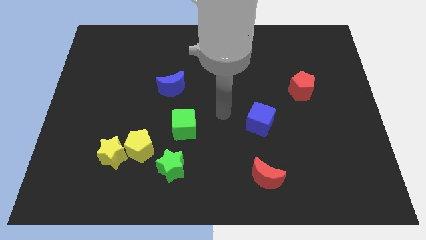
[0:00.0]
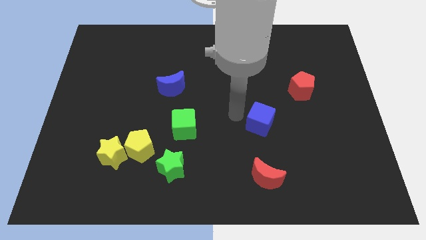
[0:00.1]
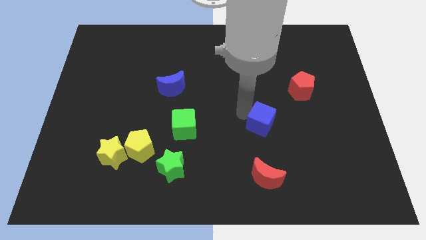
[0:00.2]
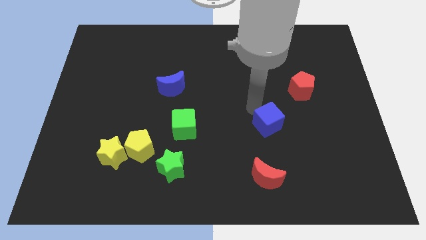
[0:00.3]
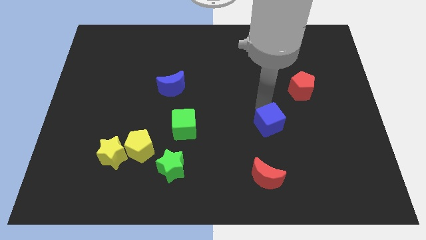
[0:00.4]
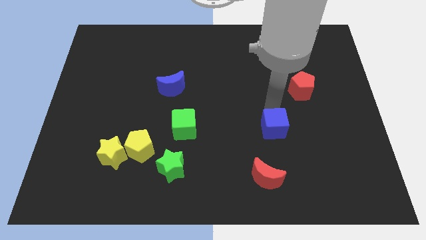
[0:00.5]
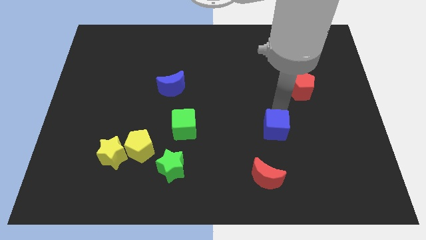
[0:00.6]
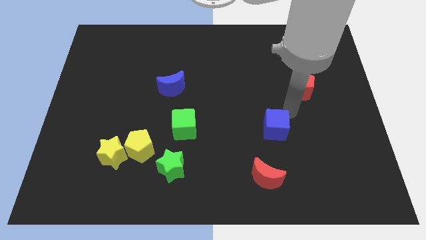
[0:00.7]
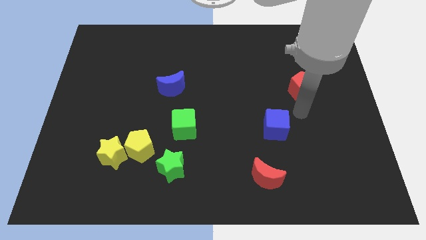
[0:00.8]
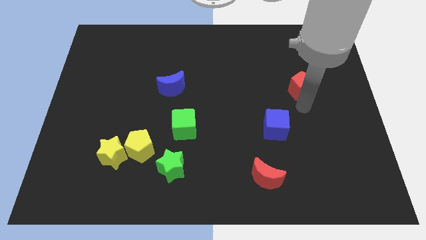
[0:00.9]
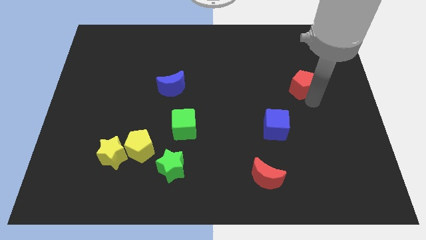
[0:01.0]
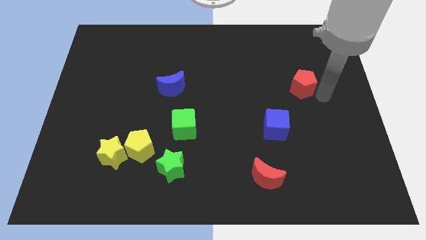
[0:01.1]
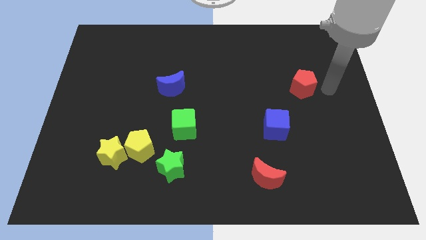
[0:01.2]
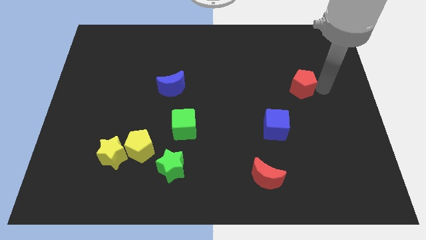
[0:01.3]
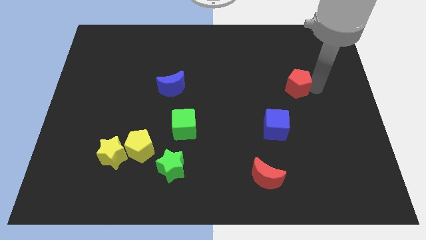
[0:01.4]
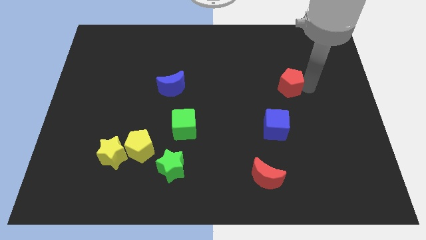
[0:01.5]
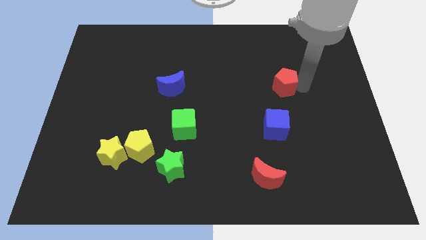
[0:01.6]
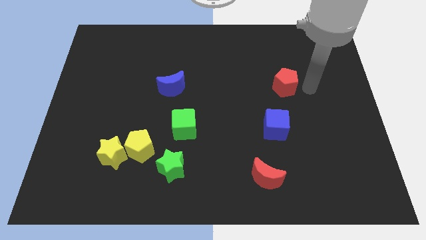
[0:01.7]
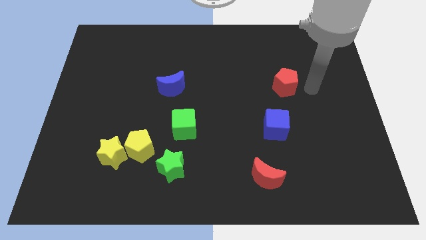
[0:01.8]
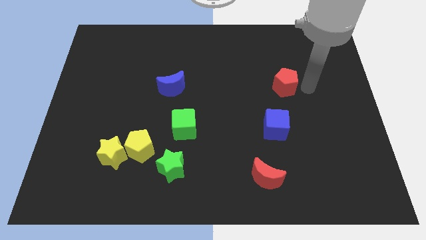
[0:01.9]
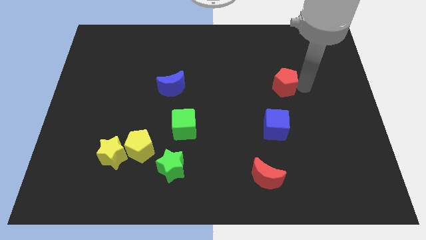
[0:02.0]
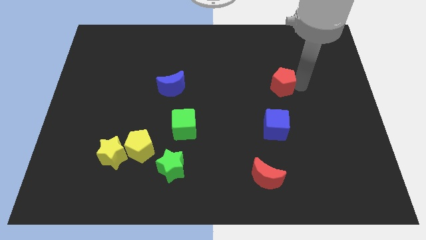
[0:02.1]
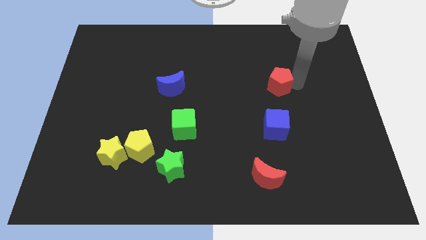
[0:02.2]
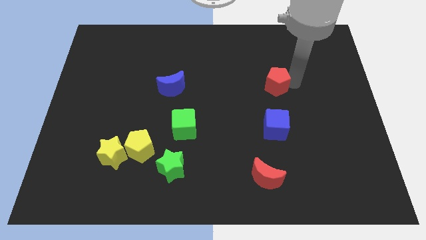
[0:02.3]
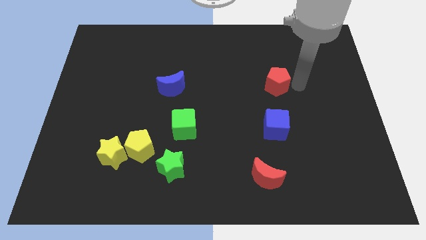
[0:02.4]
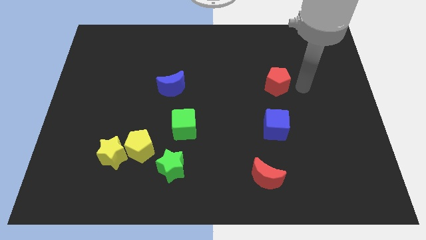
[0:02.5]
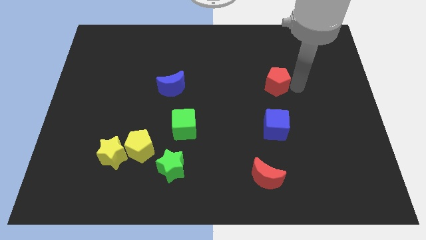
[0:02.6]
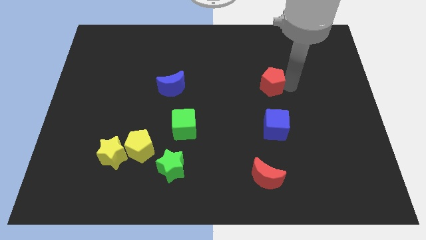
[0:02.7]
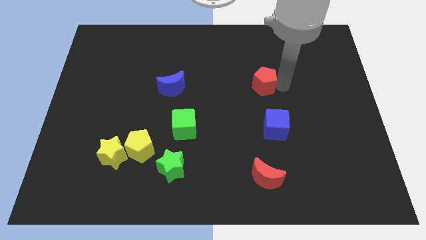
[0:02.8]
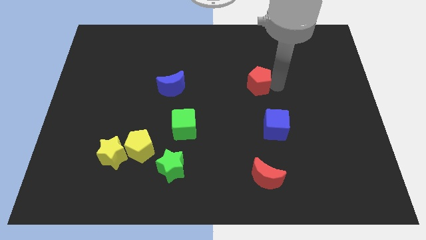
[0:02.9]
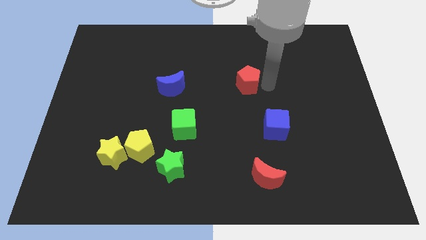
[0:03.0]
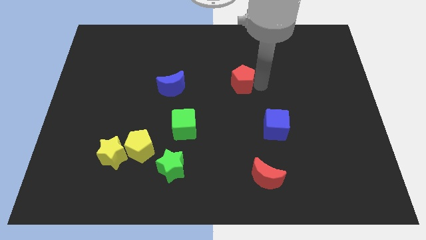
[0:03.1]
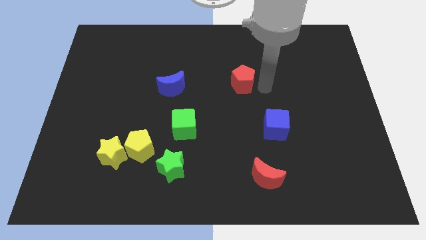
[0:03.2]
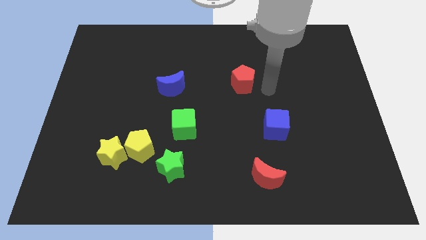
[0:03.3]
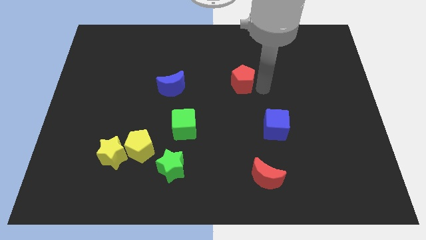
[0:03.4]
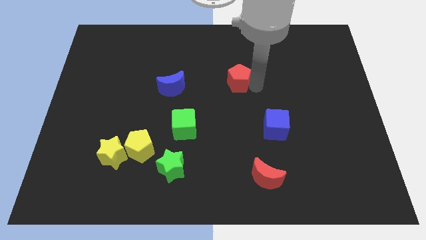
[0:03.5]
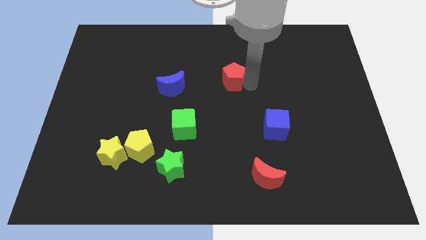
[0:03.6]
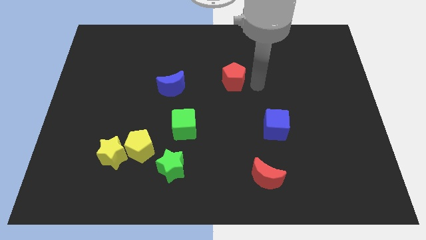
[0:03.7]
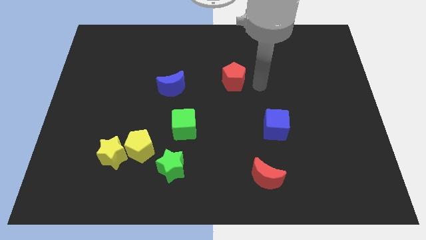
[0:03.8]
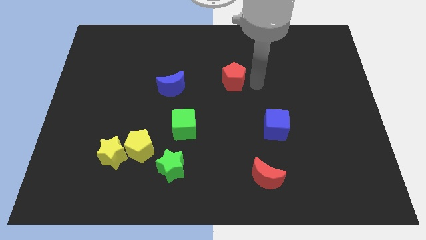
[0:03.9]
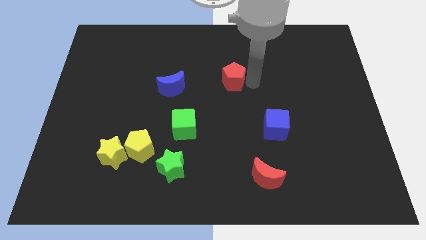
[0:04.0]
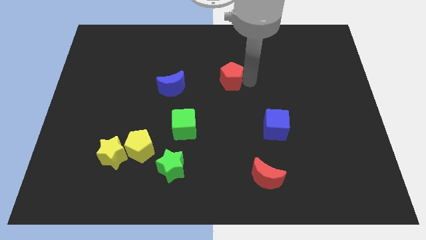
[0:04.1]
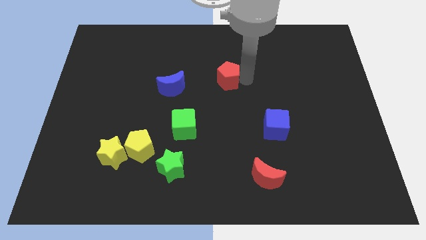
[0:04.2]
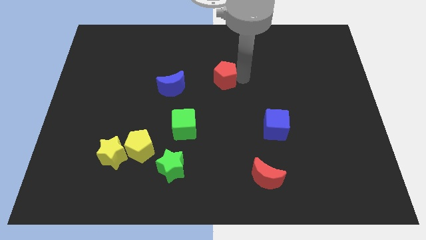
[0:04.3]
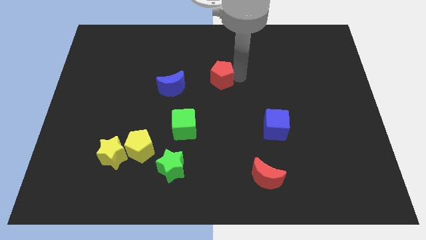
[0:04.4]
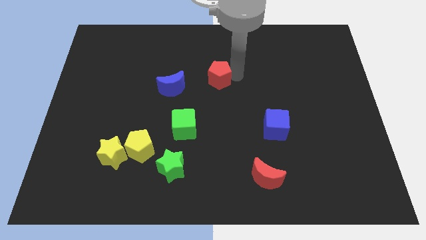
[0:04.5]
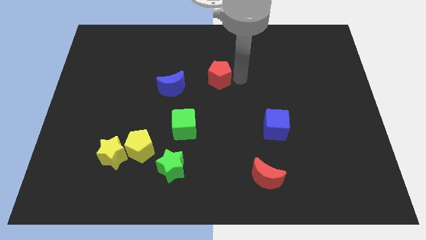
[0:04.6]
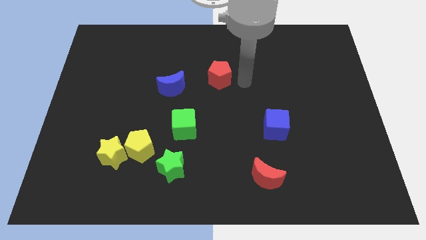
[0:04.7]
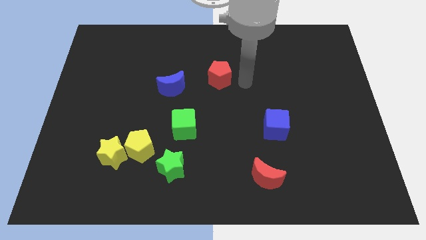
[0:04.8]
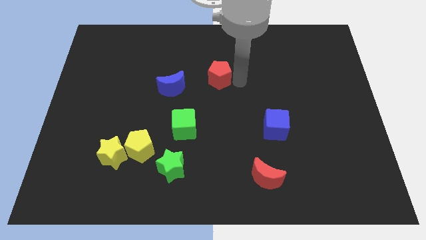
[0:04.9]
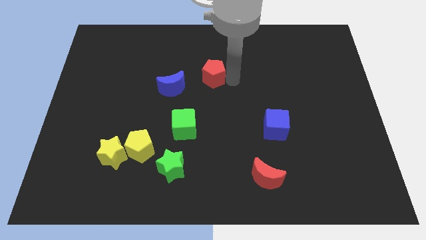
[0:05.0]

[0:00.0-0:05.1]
push the red pentagon to the top right of the blue moon

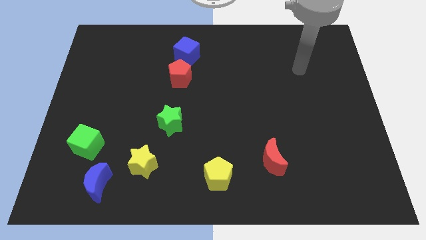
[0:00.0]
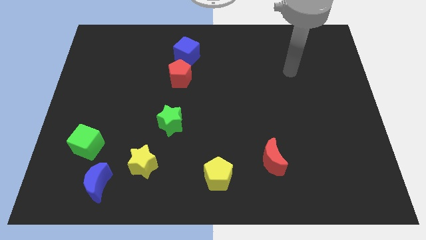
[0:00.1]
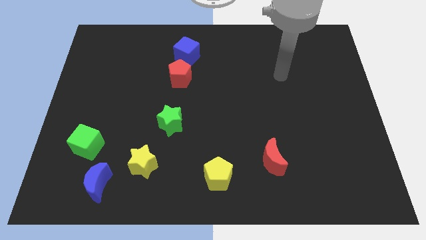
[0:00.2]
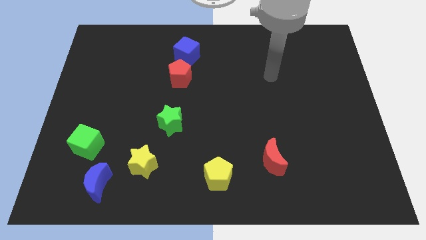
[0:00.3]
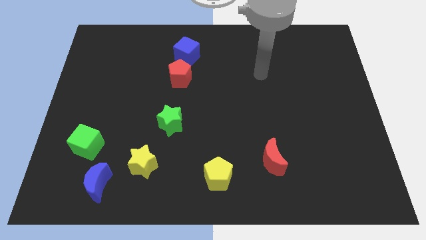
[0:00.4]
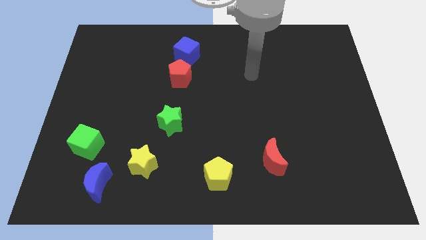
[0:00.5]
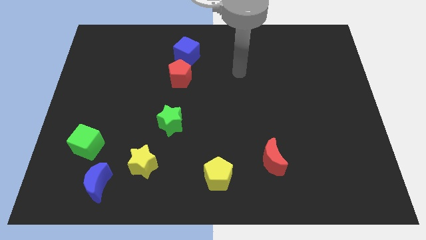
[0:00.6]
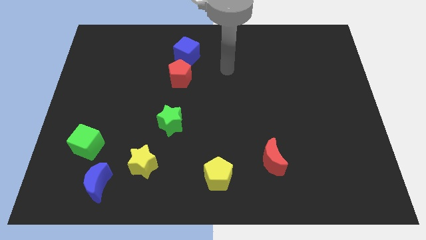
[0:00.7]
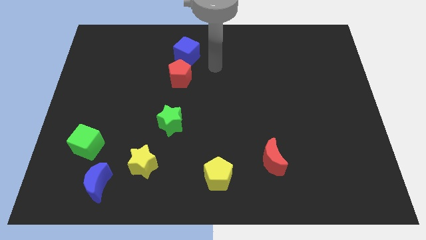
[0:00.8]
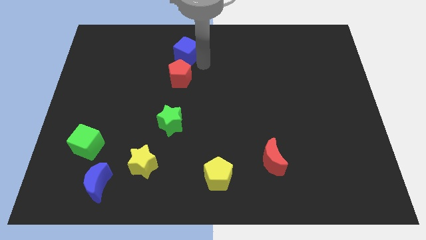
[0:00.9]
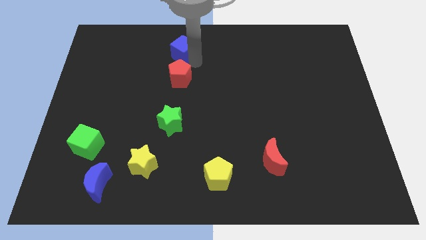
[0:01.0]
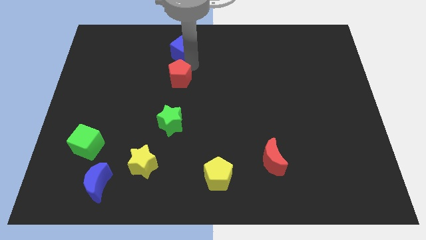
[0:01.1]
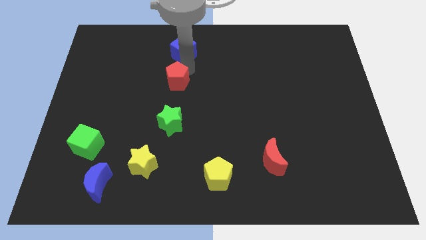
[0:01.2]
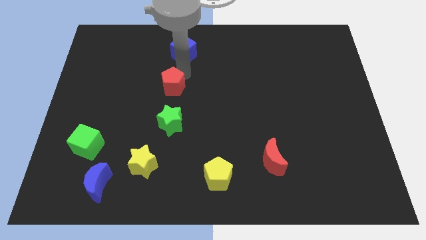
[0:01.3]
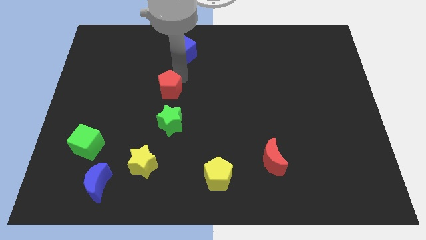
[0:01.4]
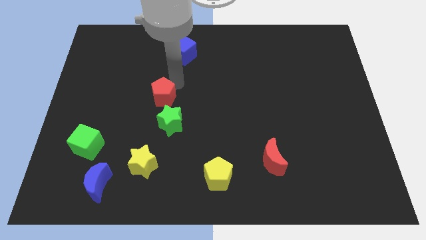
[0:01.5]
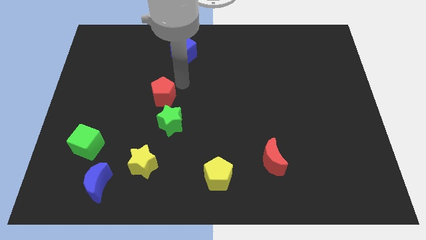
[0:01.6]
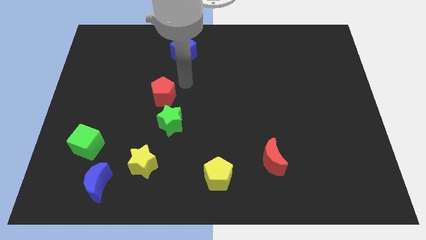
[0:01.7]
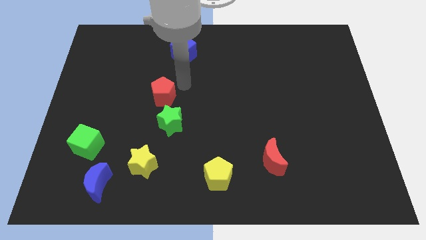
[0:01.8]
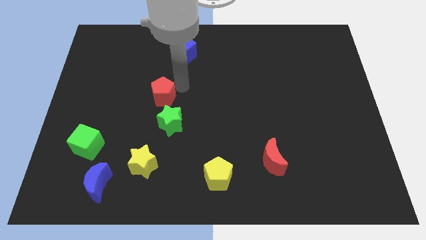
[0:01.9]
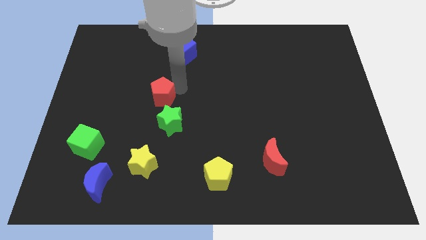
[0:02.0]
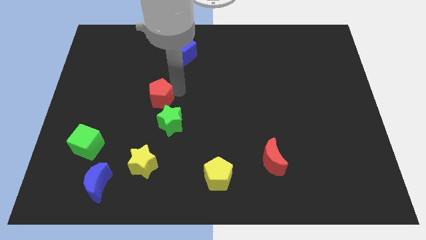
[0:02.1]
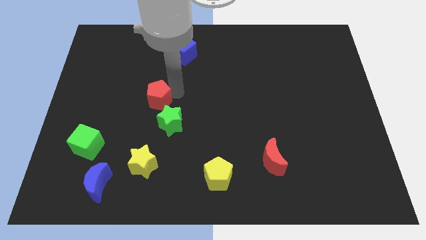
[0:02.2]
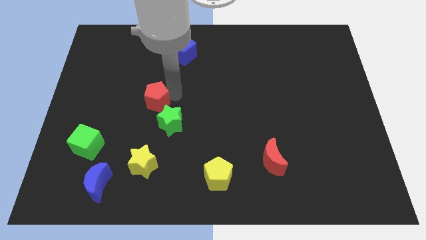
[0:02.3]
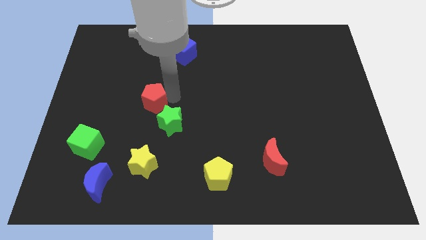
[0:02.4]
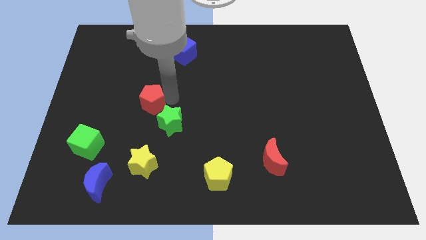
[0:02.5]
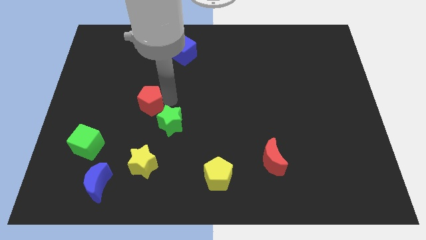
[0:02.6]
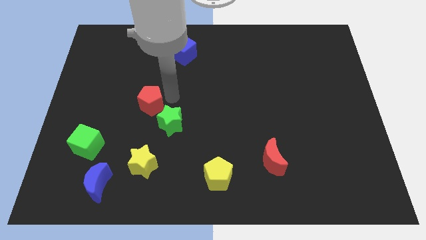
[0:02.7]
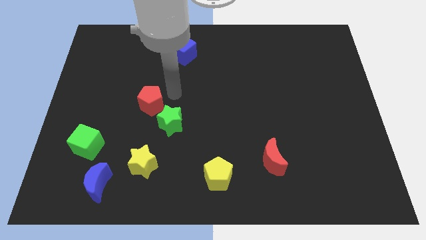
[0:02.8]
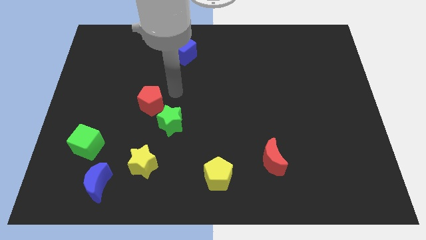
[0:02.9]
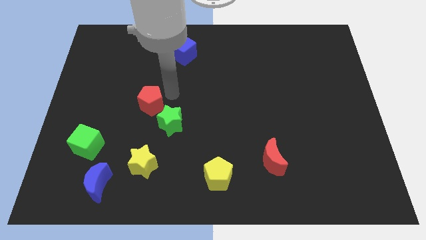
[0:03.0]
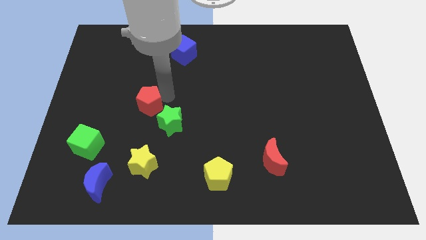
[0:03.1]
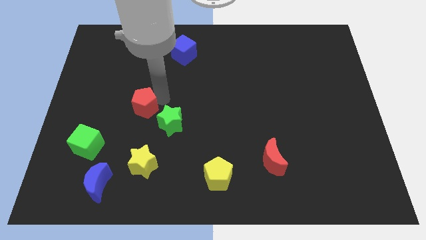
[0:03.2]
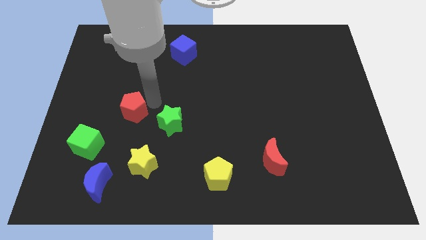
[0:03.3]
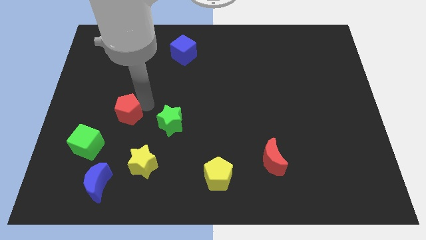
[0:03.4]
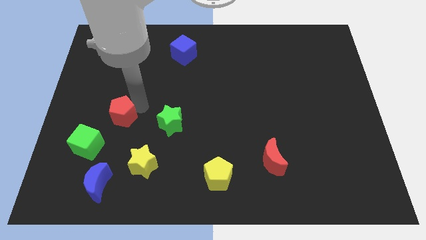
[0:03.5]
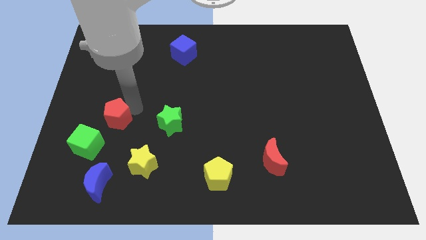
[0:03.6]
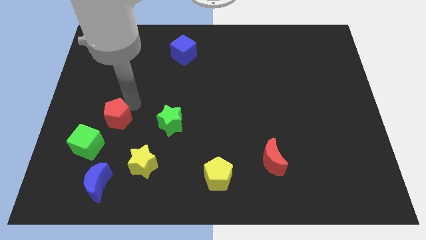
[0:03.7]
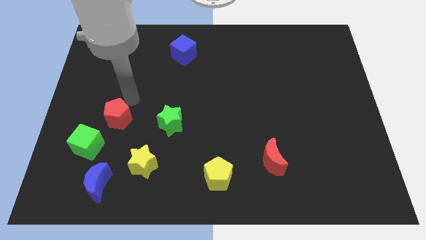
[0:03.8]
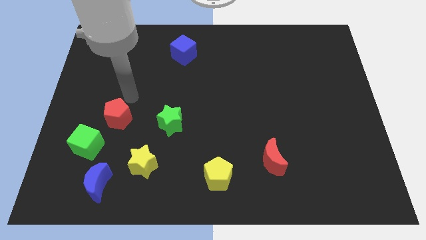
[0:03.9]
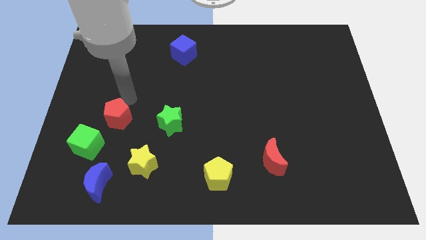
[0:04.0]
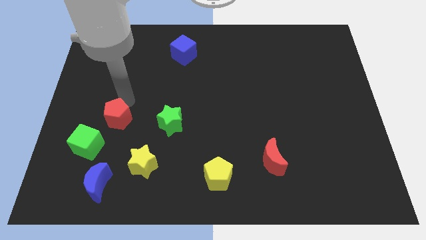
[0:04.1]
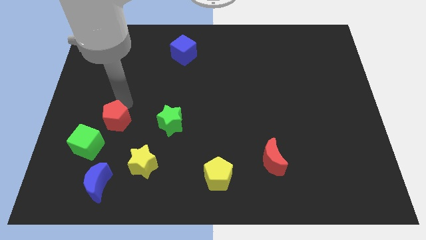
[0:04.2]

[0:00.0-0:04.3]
slide the red pentagon to the top side of the blue moon
